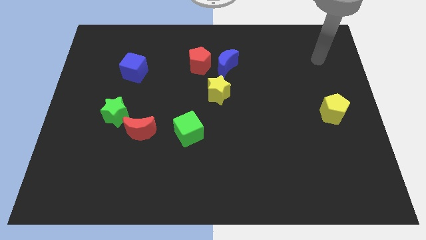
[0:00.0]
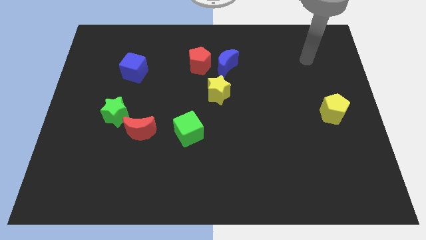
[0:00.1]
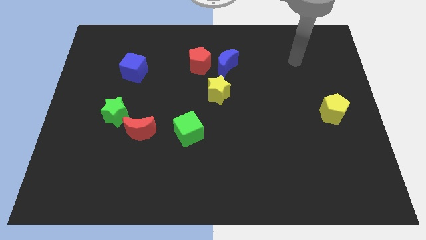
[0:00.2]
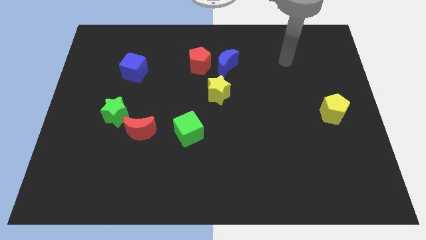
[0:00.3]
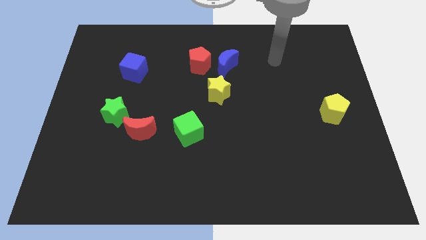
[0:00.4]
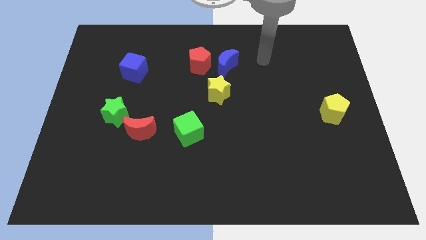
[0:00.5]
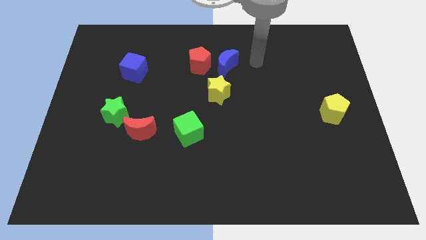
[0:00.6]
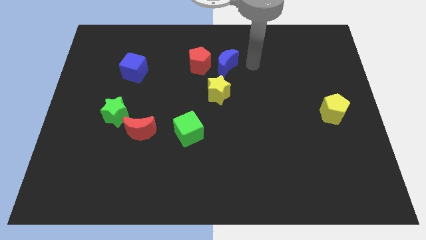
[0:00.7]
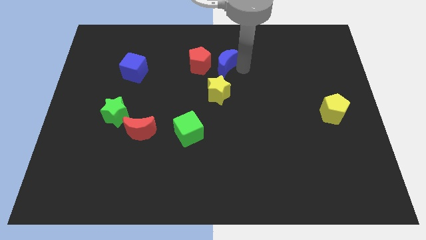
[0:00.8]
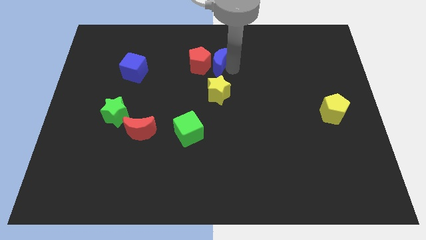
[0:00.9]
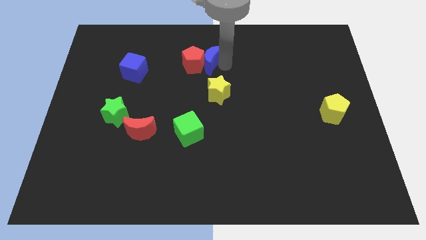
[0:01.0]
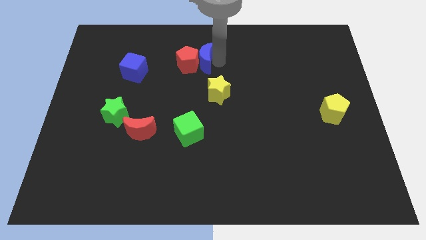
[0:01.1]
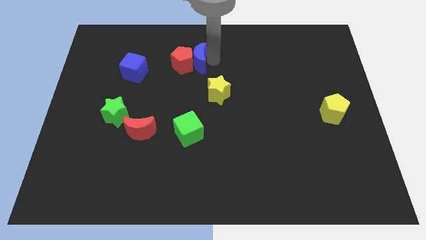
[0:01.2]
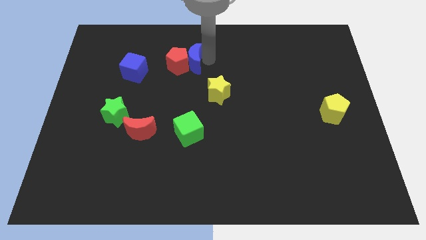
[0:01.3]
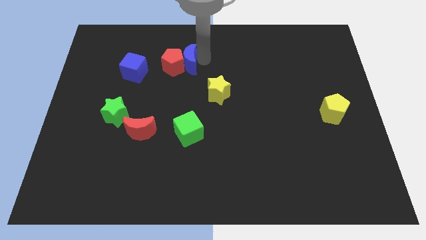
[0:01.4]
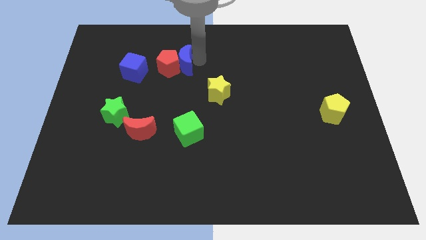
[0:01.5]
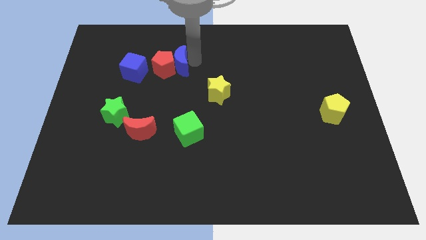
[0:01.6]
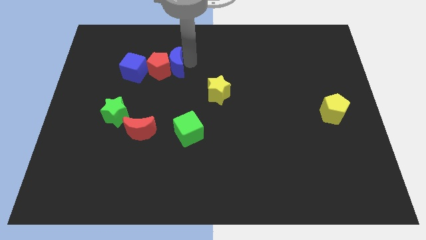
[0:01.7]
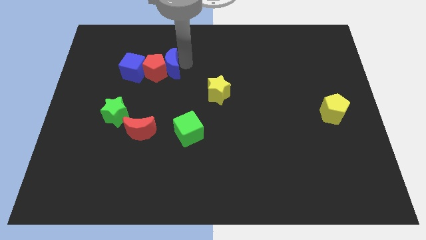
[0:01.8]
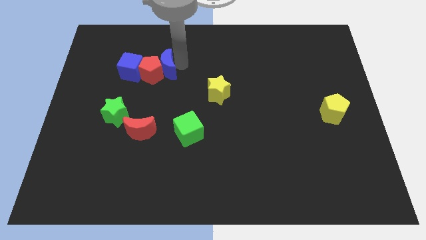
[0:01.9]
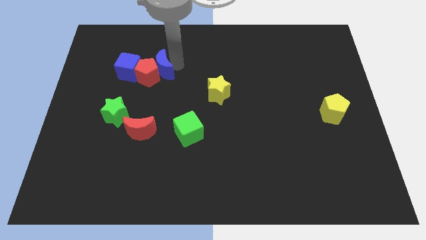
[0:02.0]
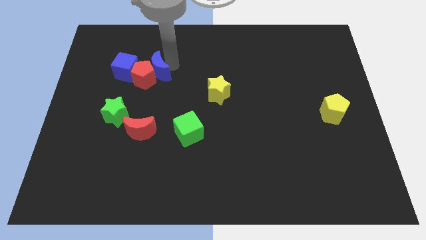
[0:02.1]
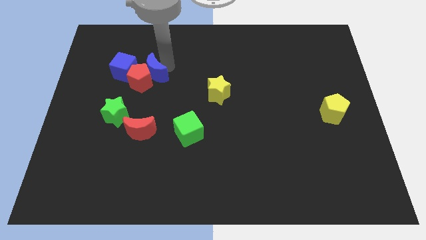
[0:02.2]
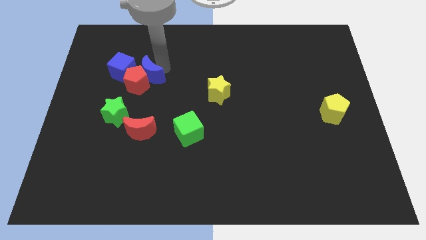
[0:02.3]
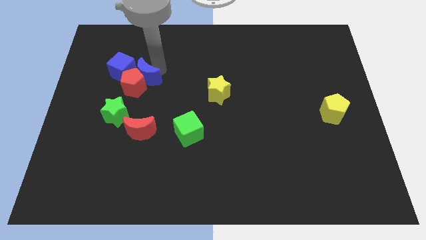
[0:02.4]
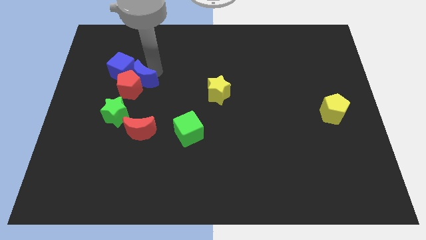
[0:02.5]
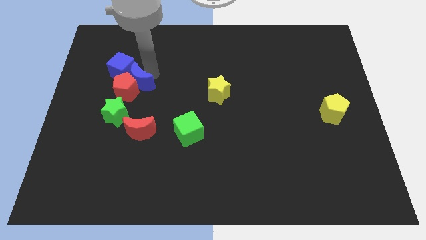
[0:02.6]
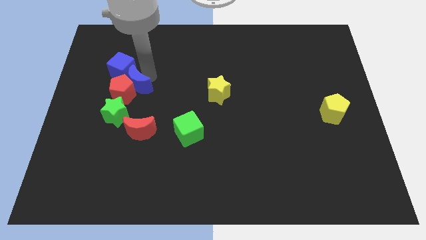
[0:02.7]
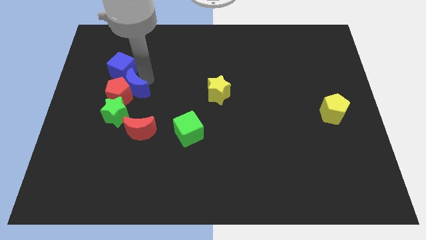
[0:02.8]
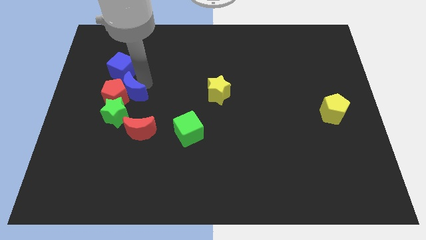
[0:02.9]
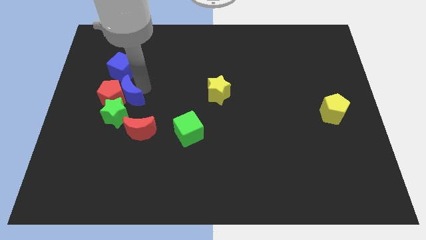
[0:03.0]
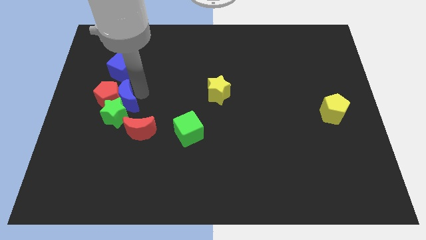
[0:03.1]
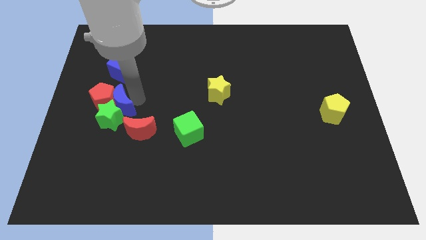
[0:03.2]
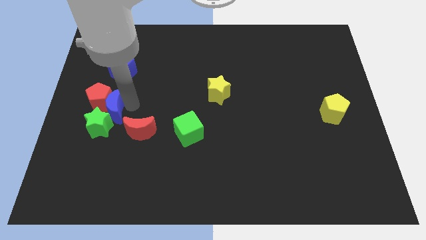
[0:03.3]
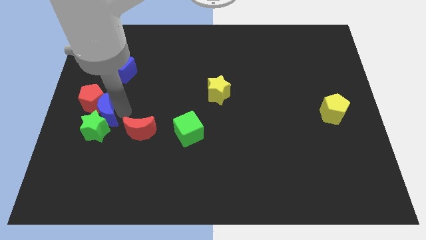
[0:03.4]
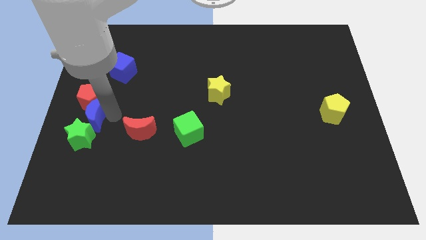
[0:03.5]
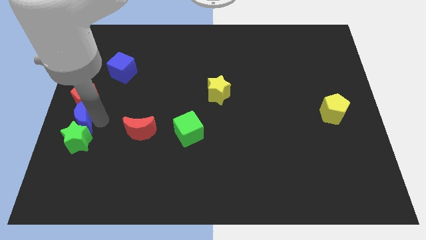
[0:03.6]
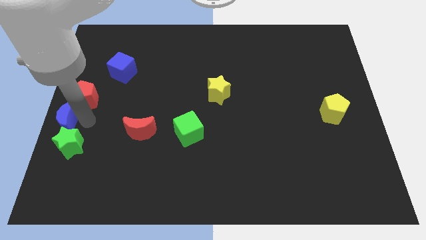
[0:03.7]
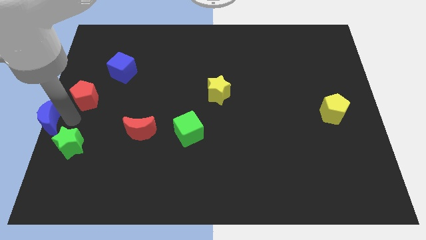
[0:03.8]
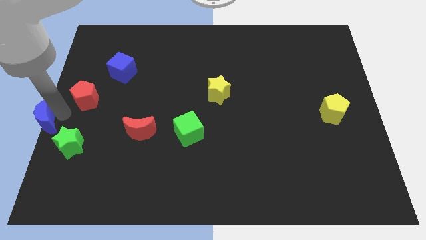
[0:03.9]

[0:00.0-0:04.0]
separate the red pentagon from the blue moon

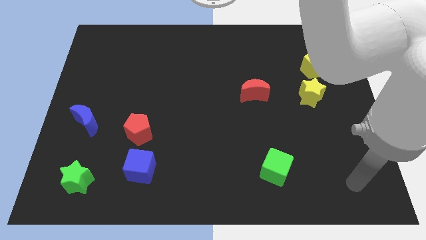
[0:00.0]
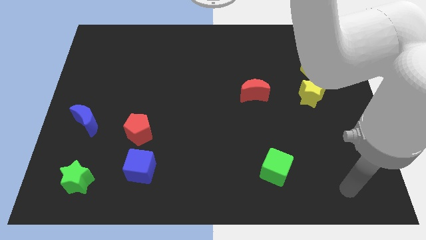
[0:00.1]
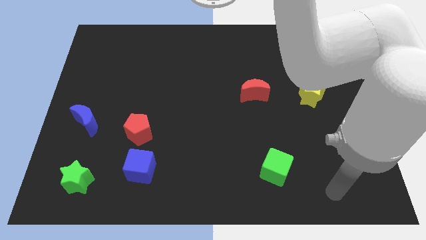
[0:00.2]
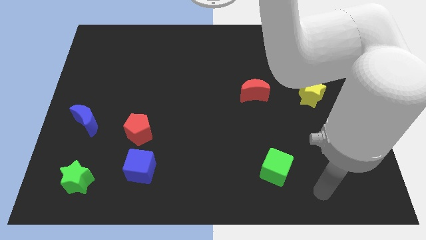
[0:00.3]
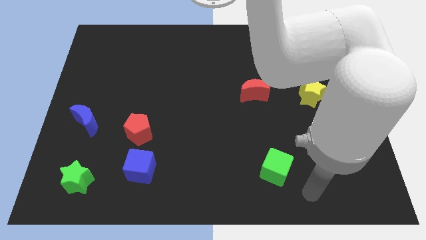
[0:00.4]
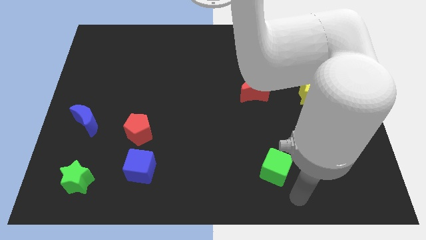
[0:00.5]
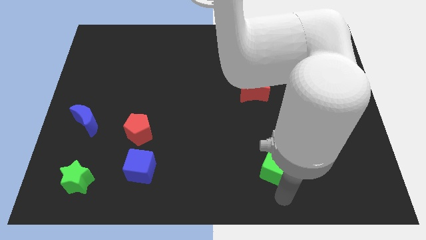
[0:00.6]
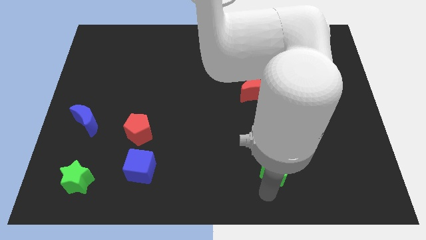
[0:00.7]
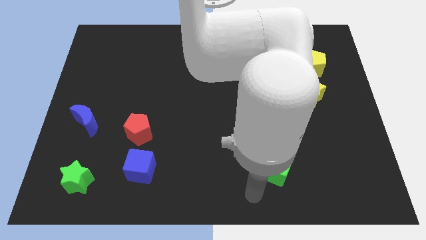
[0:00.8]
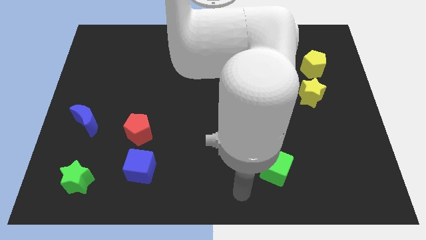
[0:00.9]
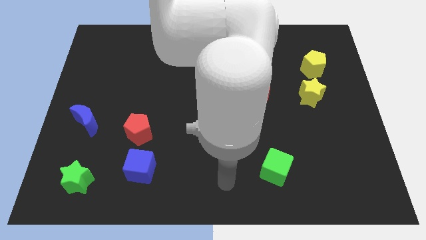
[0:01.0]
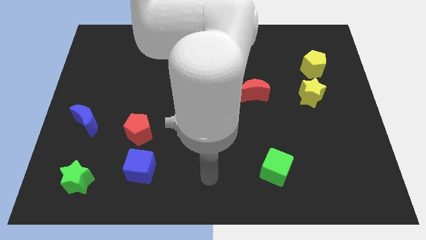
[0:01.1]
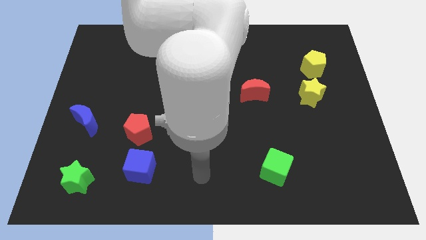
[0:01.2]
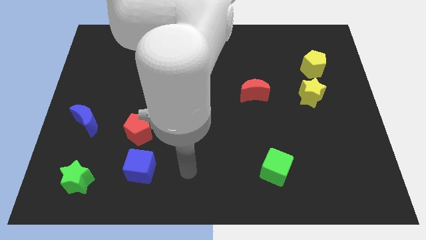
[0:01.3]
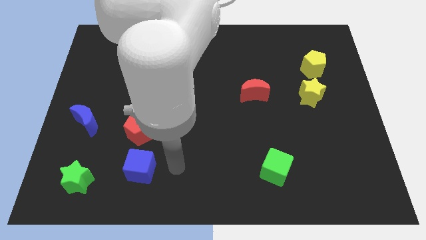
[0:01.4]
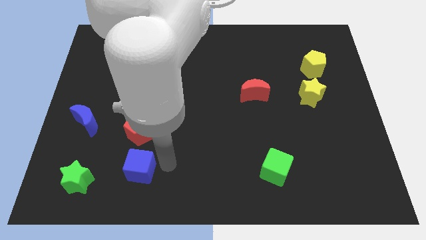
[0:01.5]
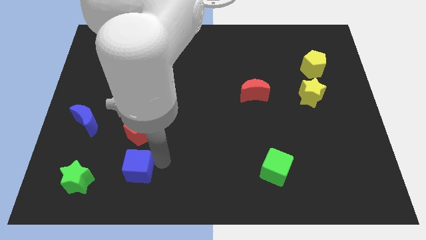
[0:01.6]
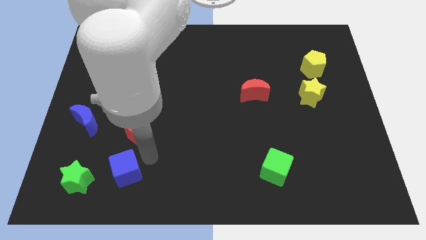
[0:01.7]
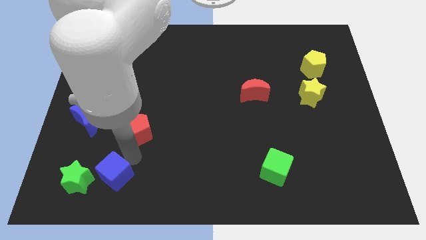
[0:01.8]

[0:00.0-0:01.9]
pull the red pentagon apart from the blue cube

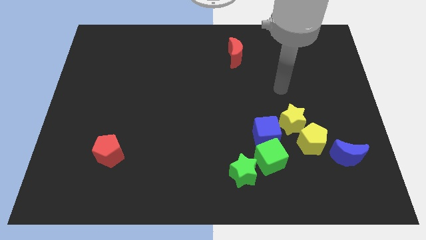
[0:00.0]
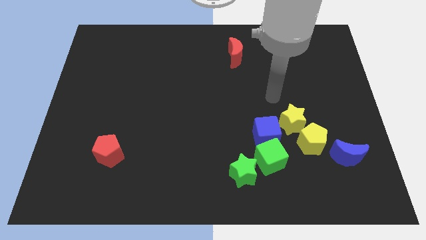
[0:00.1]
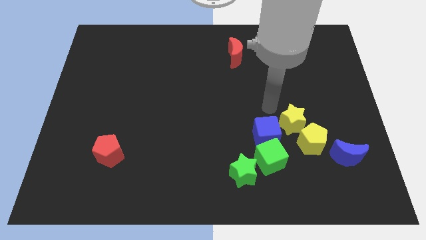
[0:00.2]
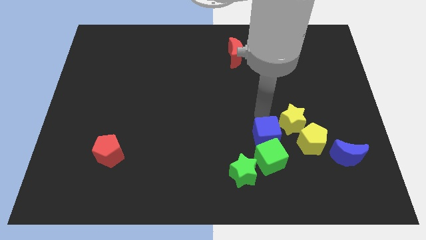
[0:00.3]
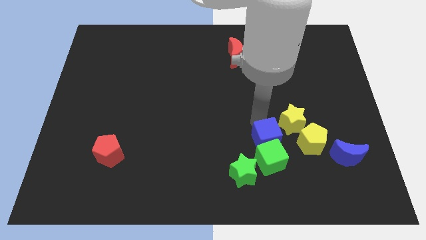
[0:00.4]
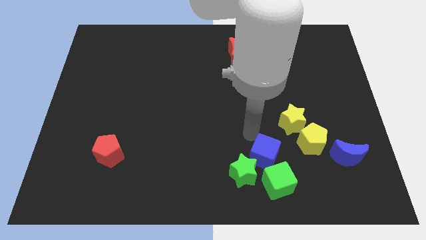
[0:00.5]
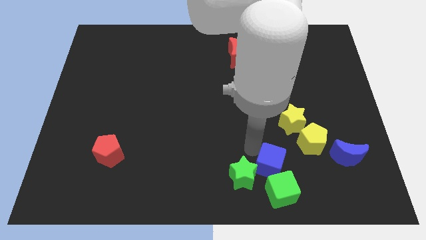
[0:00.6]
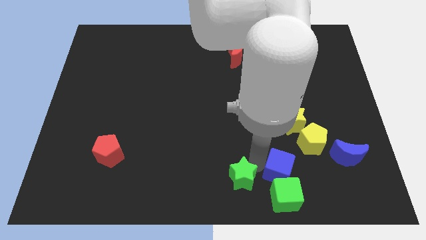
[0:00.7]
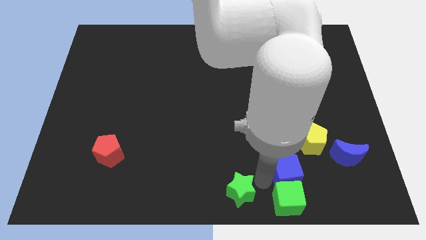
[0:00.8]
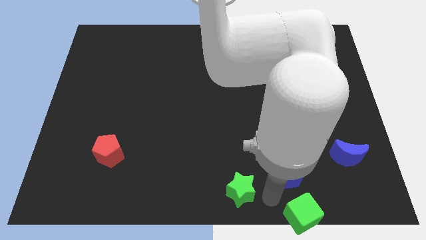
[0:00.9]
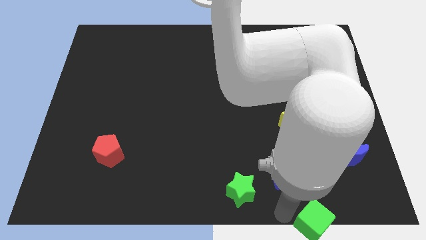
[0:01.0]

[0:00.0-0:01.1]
pull the green cube apart from the blue cube and green star

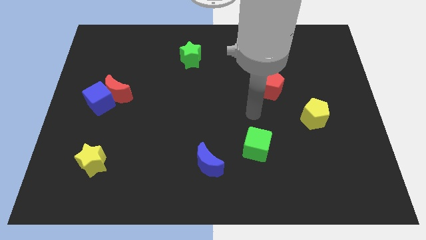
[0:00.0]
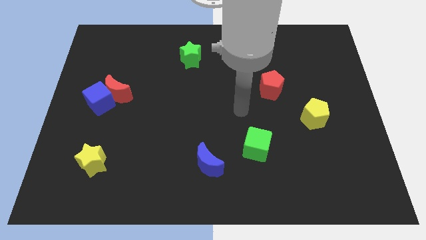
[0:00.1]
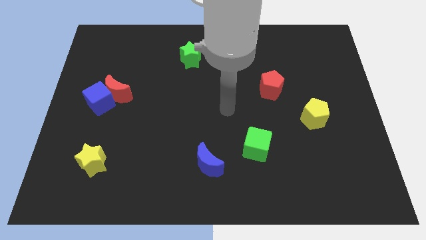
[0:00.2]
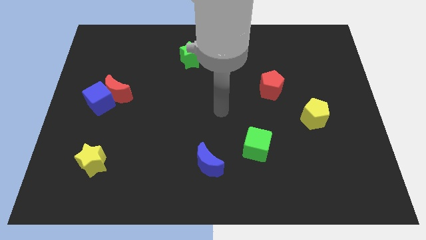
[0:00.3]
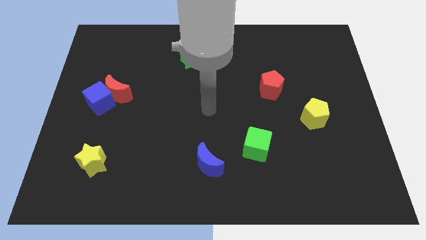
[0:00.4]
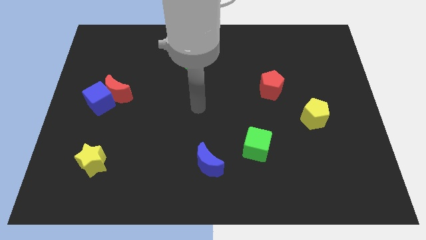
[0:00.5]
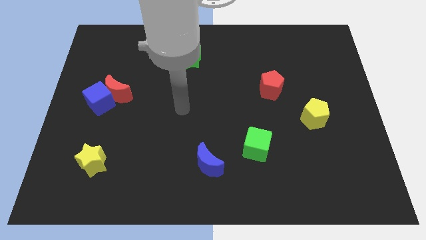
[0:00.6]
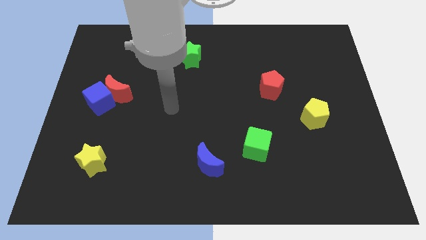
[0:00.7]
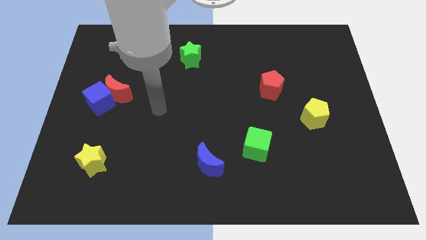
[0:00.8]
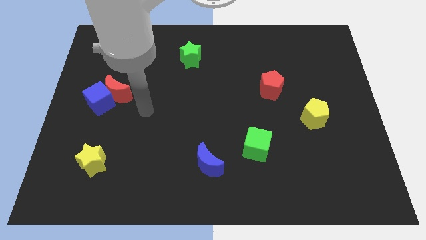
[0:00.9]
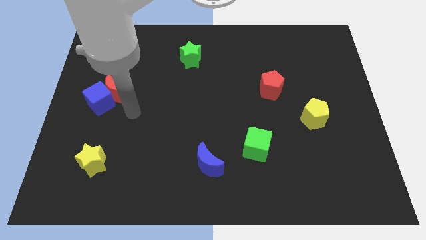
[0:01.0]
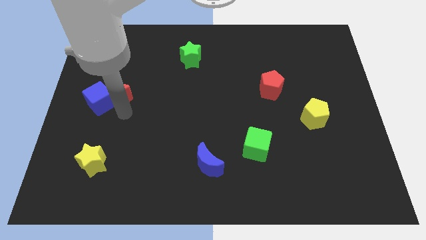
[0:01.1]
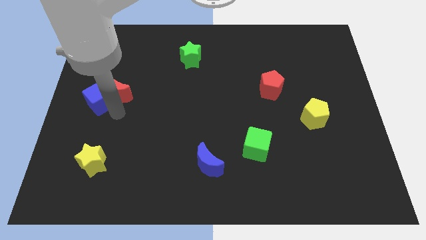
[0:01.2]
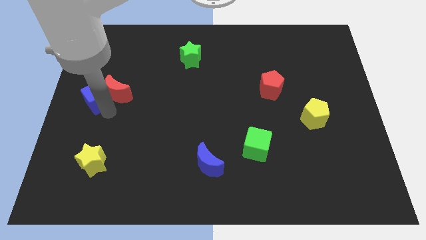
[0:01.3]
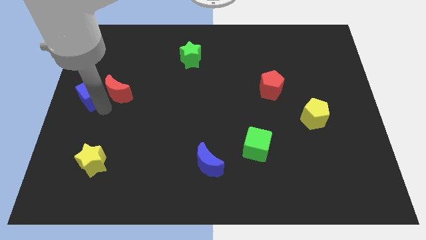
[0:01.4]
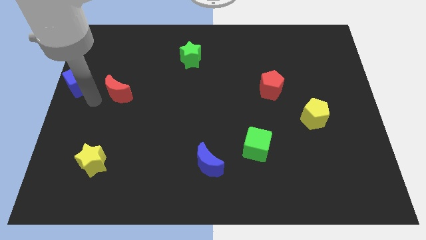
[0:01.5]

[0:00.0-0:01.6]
separate the red moon from the blue cube

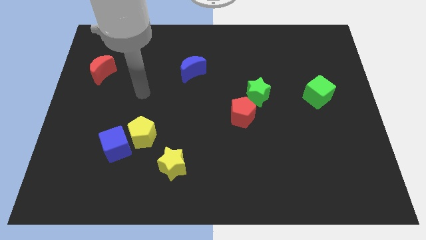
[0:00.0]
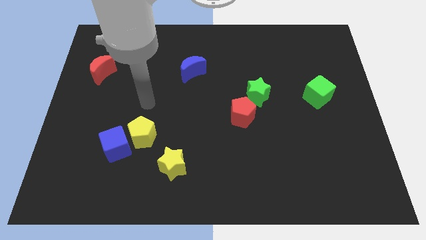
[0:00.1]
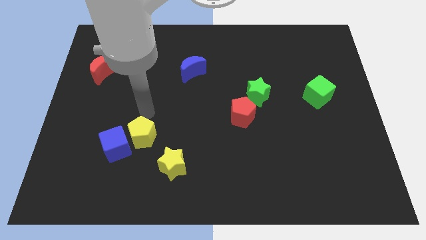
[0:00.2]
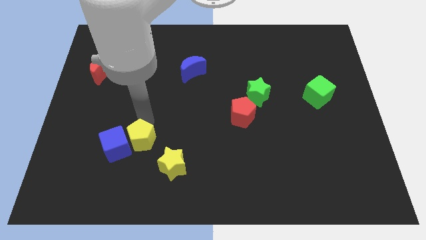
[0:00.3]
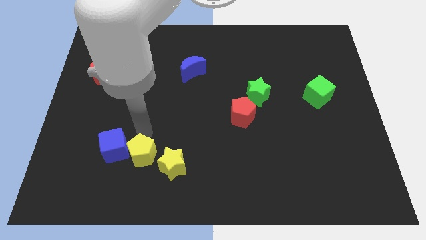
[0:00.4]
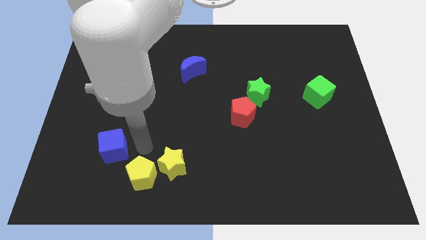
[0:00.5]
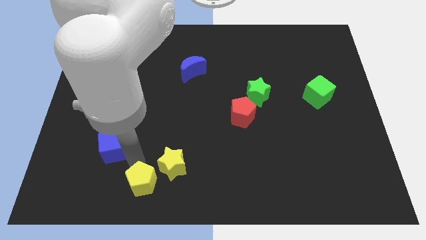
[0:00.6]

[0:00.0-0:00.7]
pull the blue cube apart from the yellow pentagon
